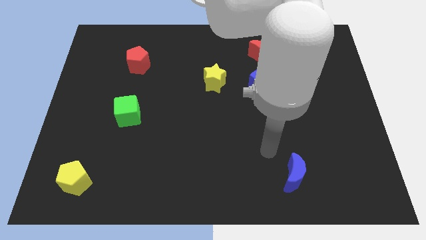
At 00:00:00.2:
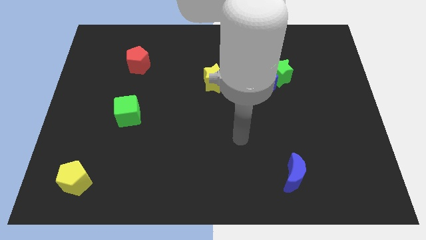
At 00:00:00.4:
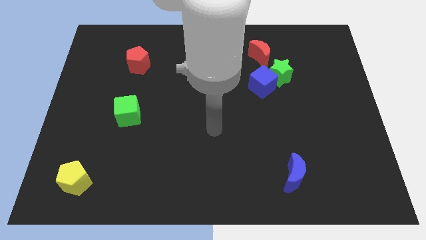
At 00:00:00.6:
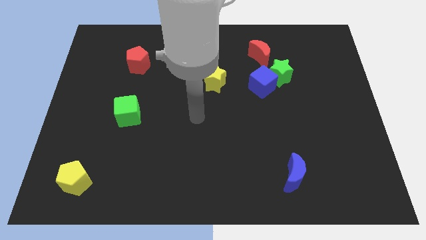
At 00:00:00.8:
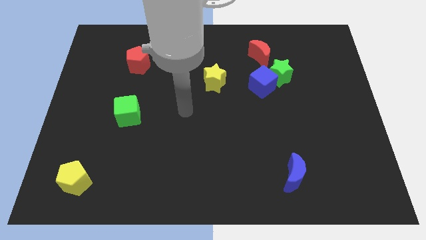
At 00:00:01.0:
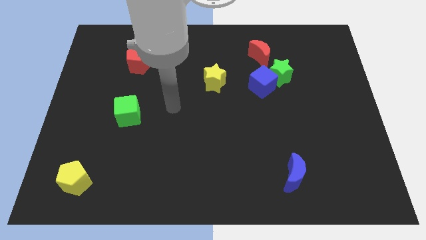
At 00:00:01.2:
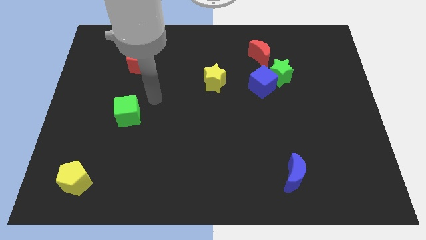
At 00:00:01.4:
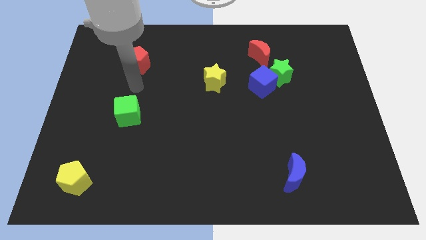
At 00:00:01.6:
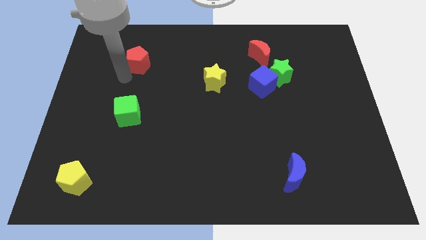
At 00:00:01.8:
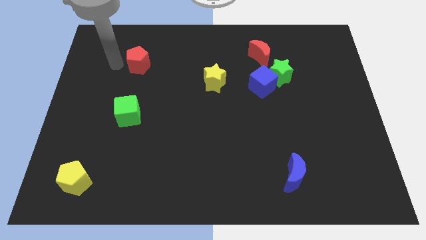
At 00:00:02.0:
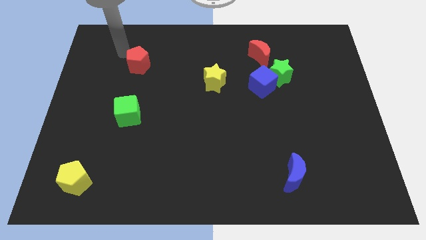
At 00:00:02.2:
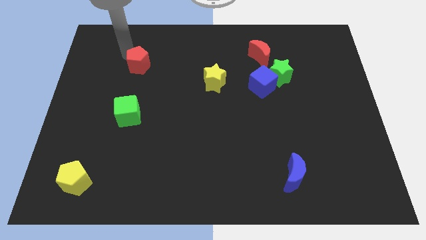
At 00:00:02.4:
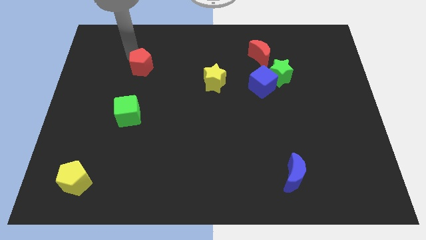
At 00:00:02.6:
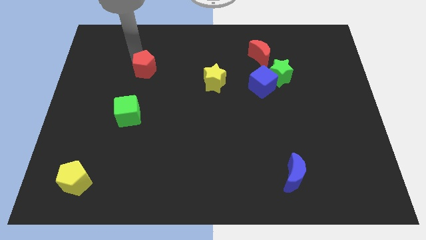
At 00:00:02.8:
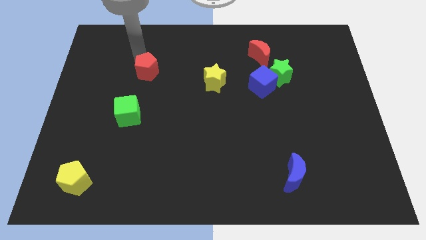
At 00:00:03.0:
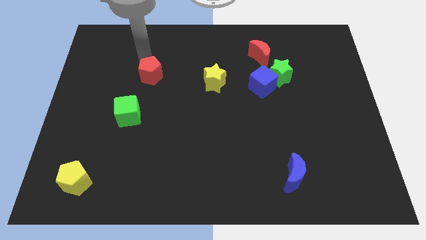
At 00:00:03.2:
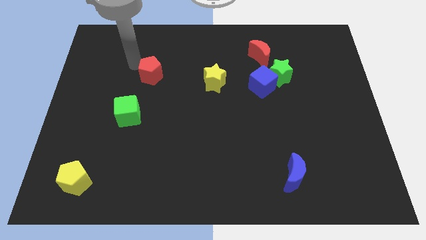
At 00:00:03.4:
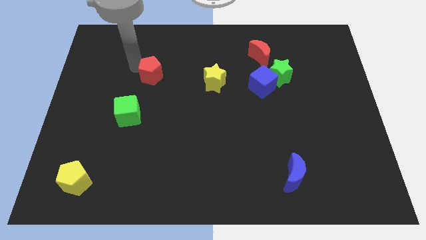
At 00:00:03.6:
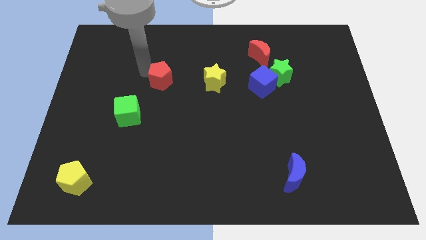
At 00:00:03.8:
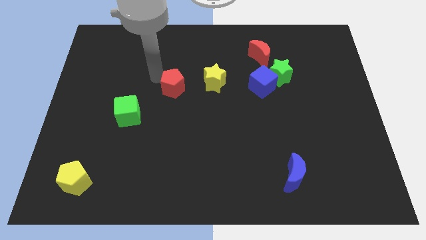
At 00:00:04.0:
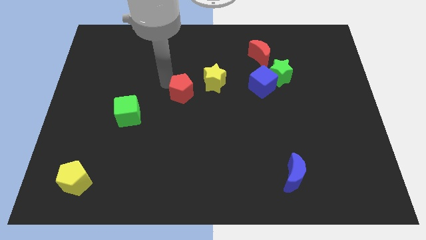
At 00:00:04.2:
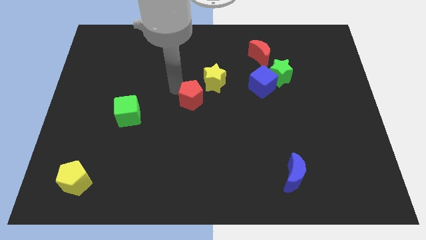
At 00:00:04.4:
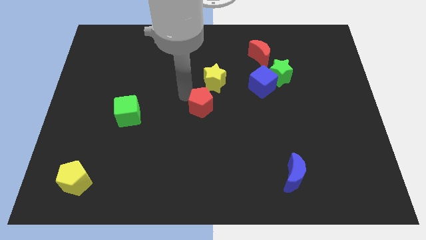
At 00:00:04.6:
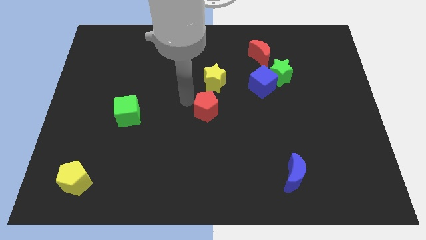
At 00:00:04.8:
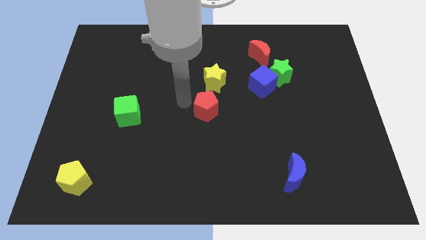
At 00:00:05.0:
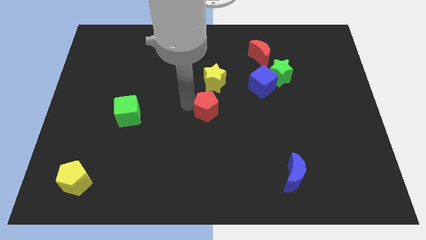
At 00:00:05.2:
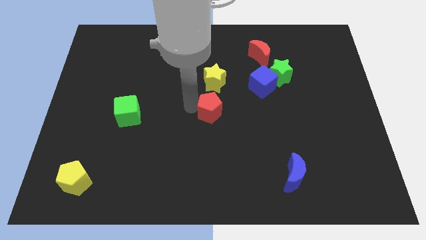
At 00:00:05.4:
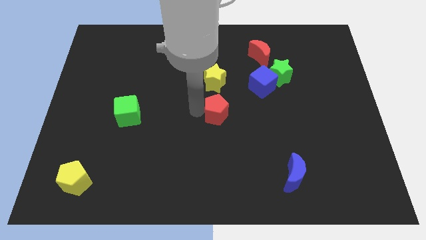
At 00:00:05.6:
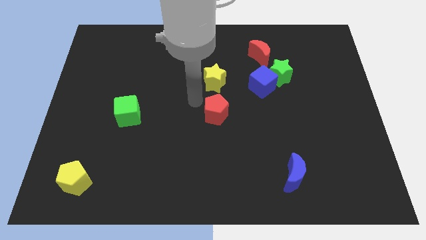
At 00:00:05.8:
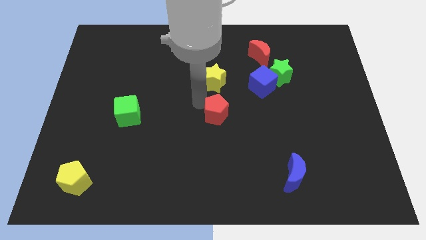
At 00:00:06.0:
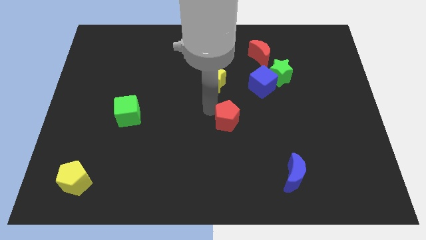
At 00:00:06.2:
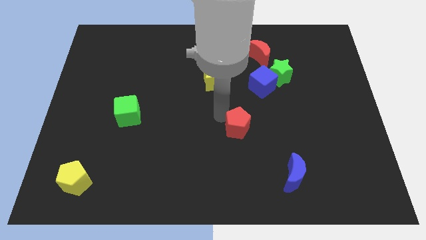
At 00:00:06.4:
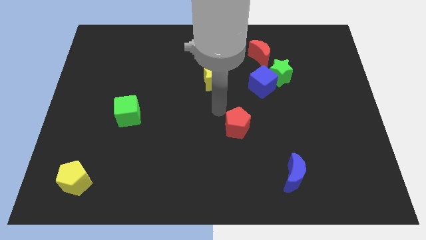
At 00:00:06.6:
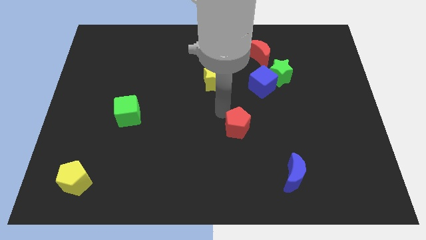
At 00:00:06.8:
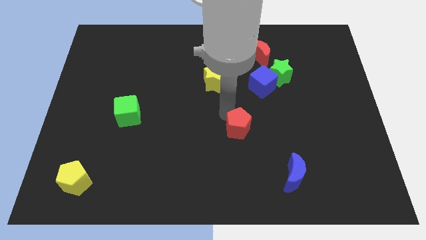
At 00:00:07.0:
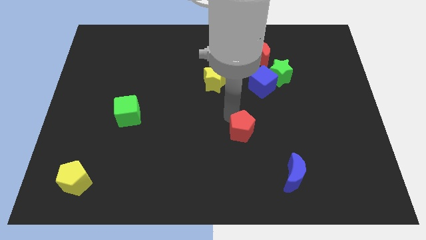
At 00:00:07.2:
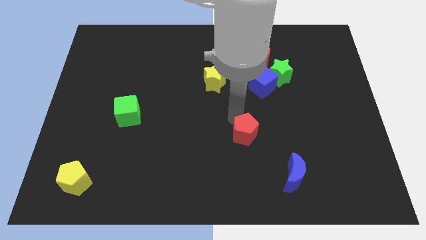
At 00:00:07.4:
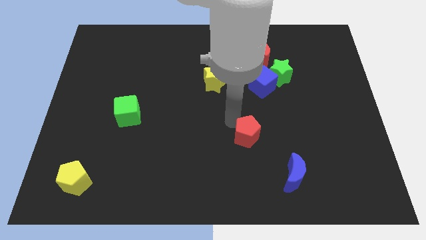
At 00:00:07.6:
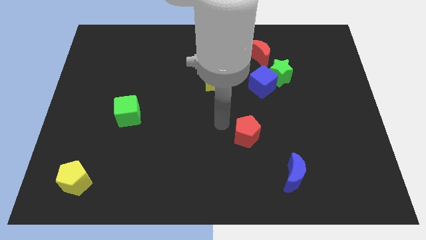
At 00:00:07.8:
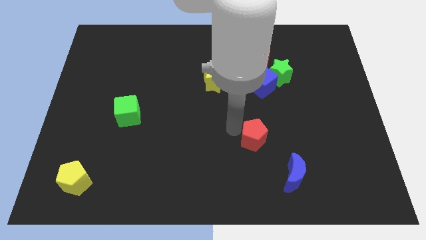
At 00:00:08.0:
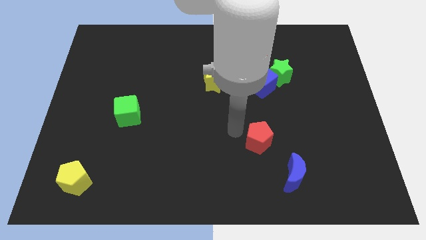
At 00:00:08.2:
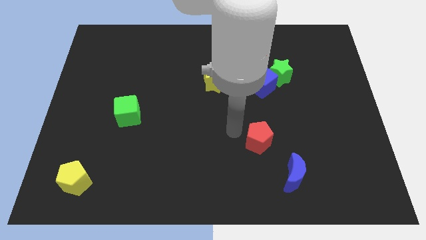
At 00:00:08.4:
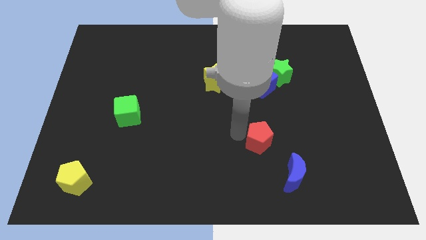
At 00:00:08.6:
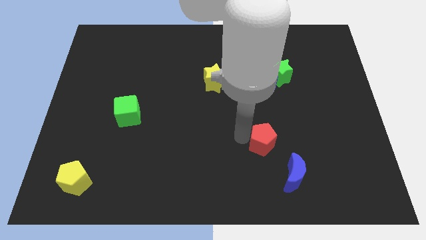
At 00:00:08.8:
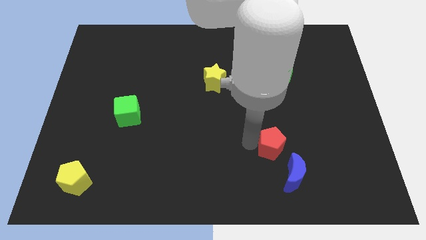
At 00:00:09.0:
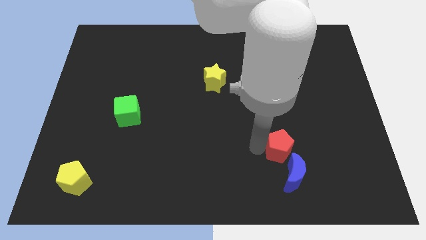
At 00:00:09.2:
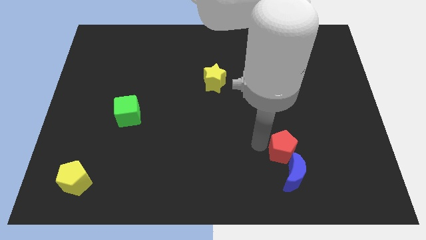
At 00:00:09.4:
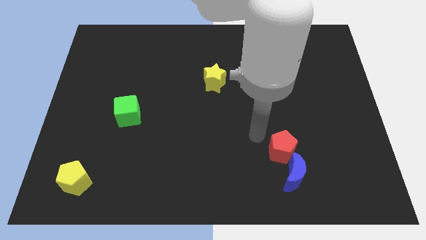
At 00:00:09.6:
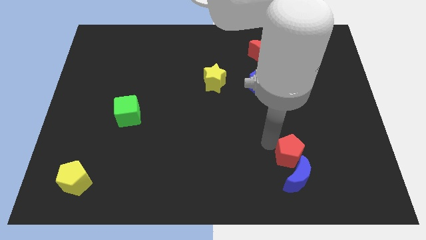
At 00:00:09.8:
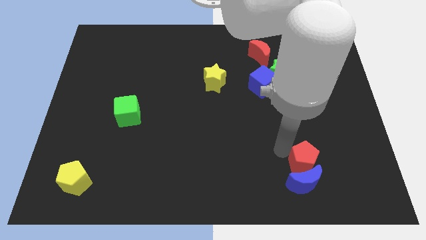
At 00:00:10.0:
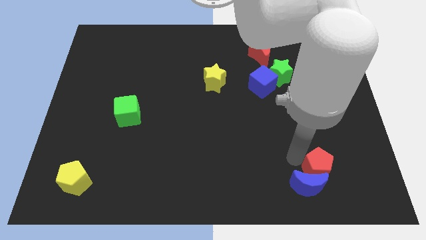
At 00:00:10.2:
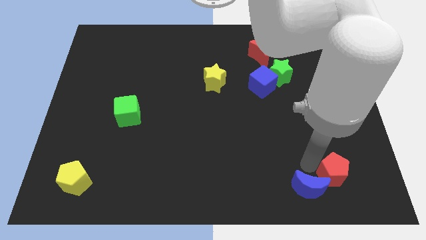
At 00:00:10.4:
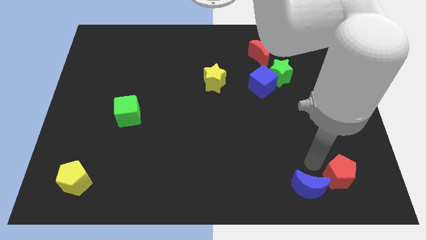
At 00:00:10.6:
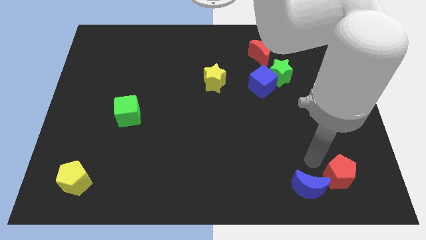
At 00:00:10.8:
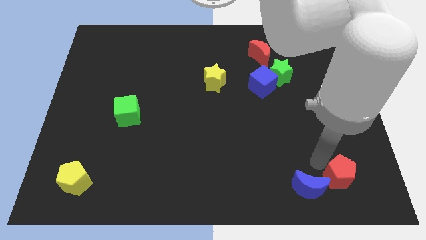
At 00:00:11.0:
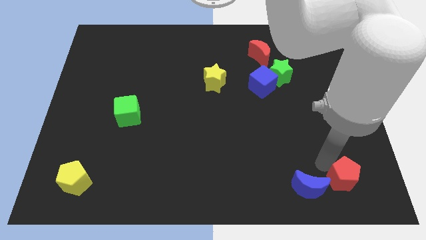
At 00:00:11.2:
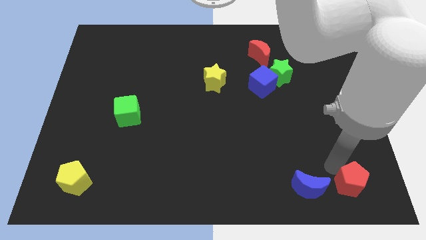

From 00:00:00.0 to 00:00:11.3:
put the red pentagon to the lower right corner
